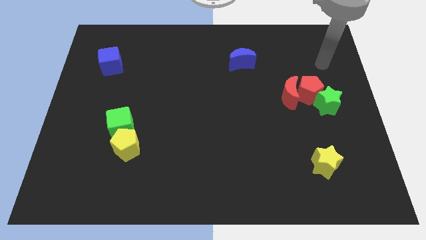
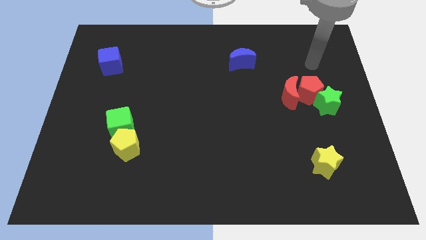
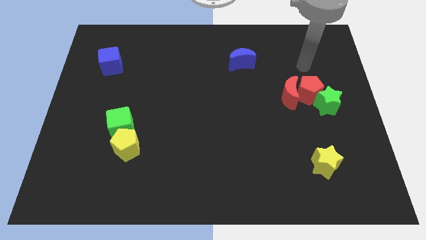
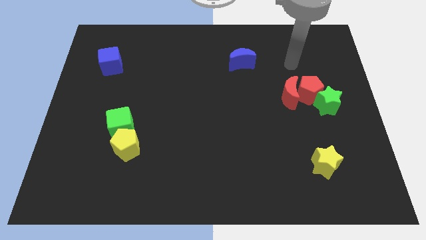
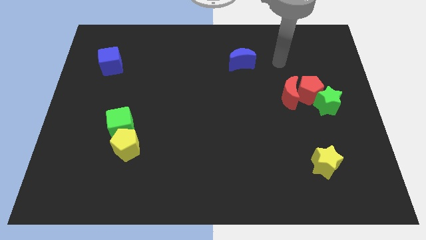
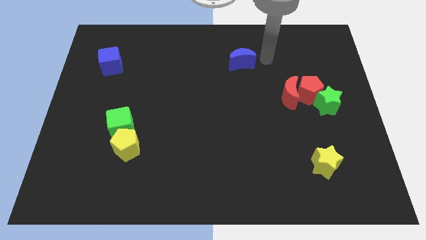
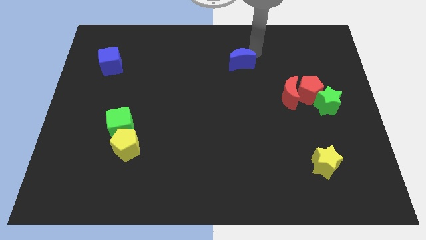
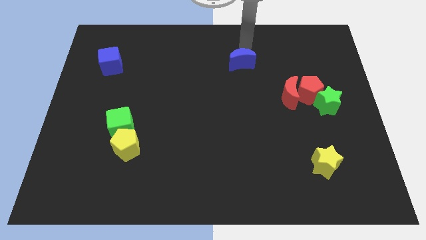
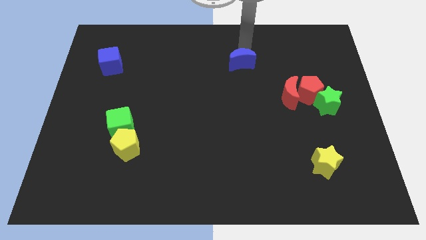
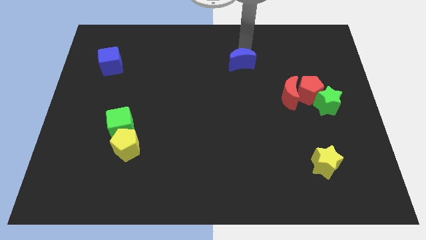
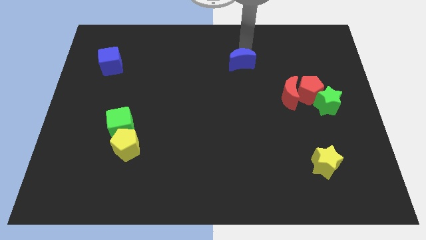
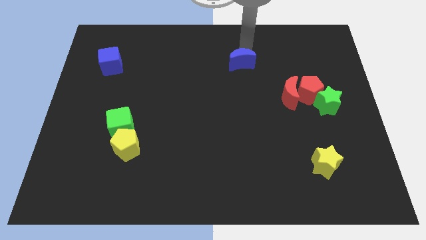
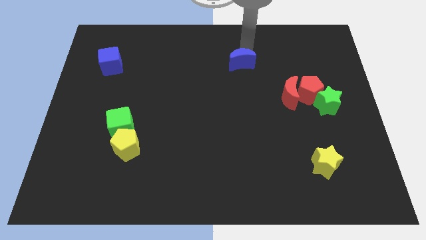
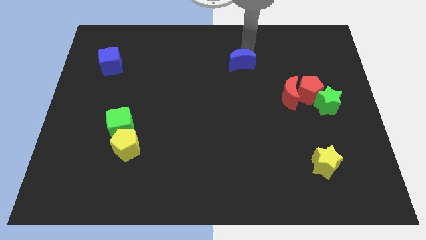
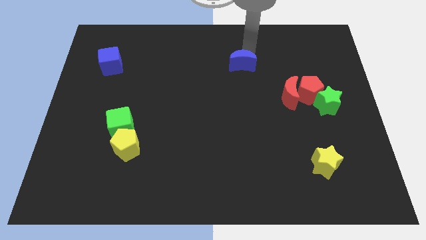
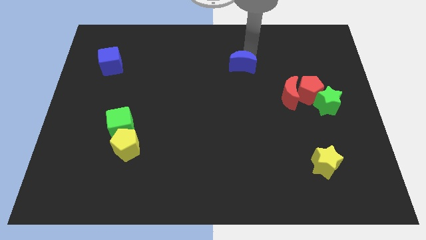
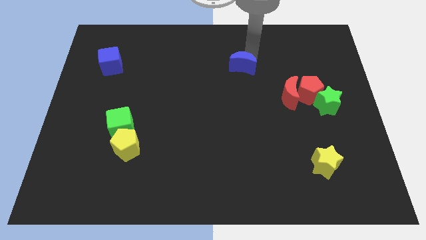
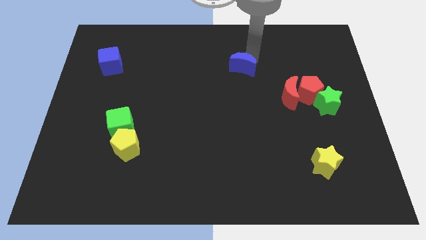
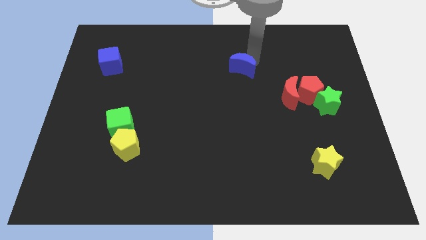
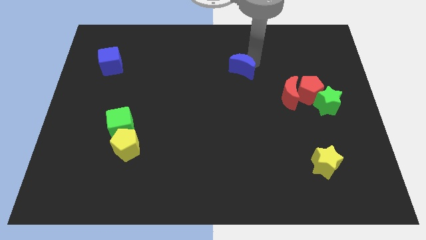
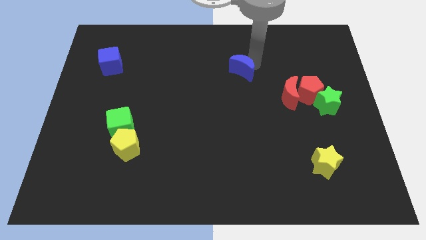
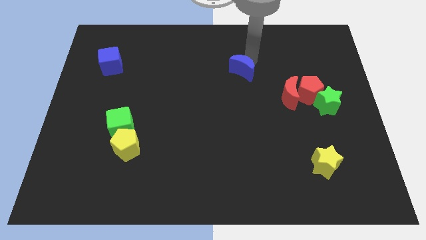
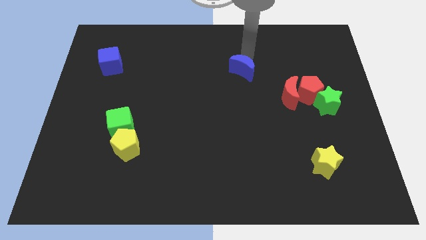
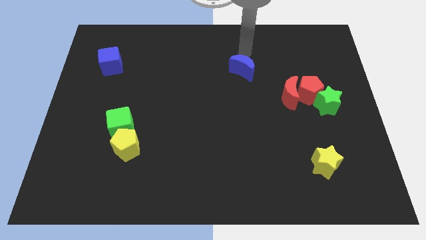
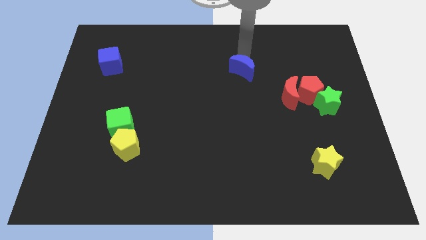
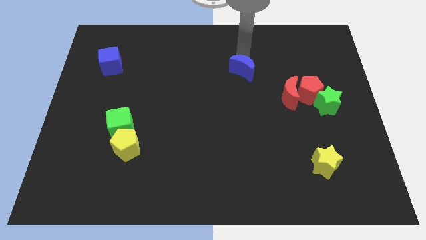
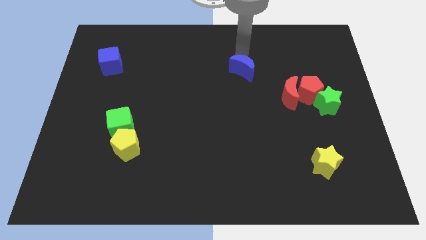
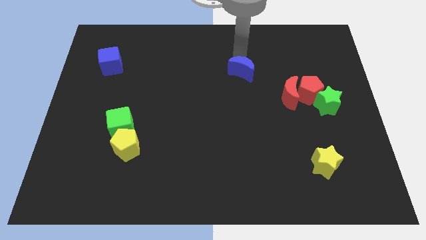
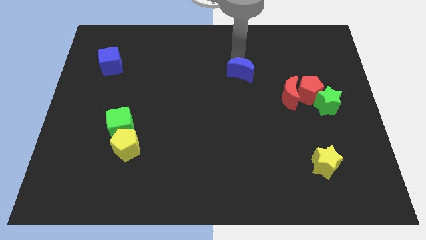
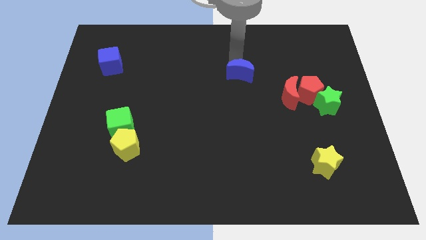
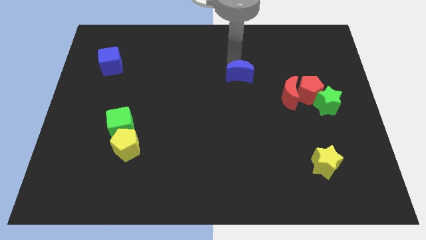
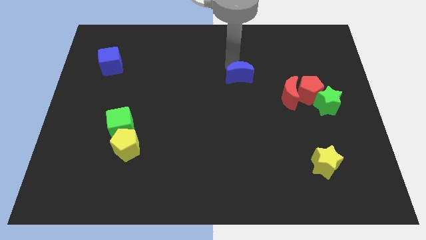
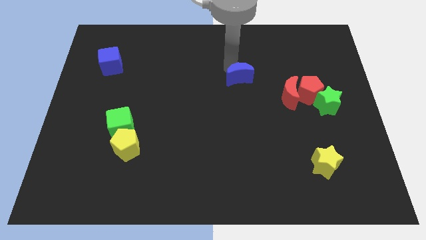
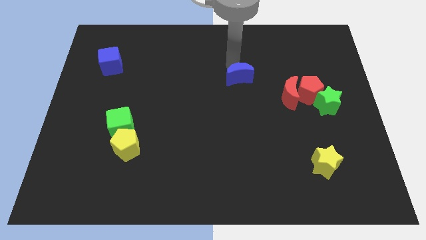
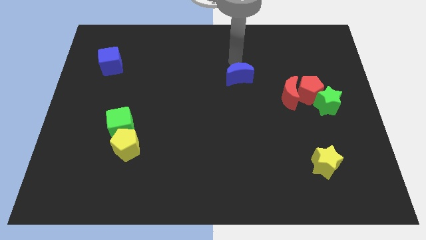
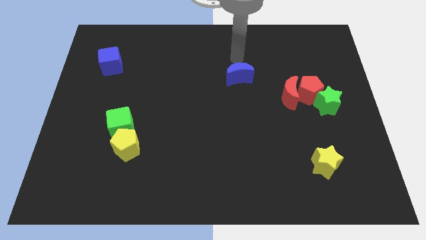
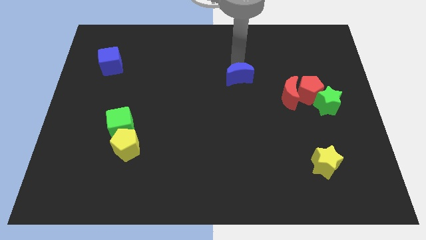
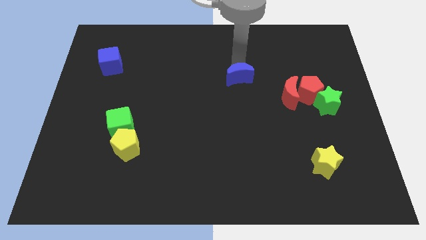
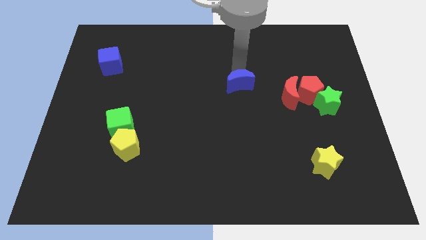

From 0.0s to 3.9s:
move the blue moon downwards a little

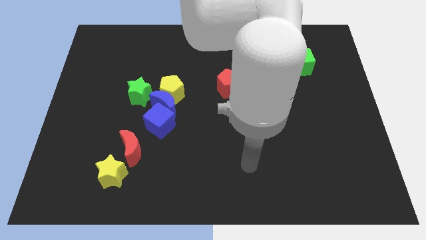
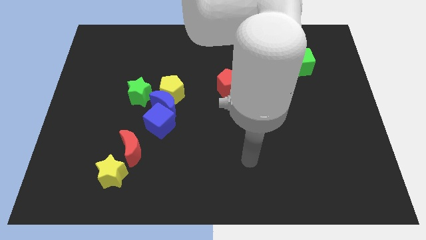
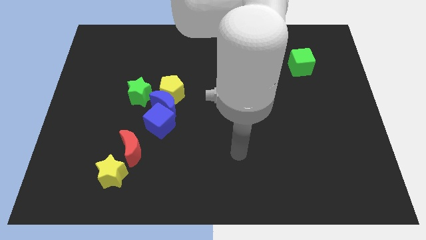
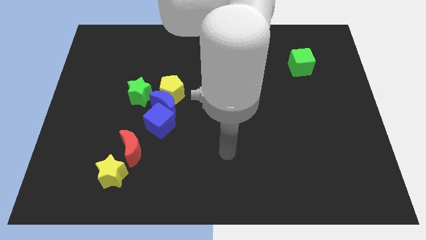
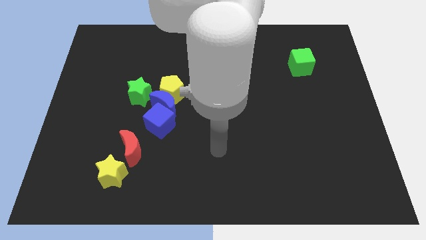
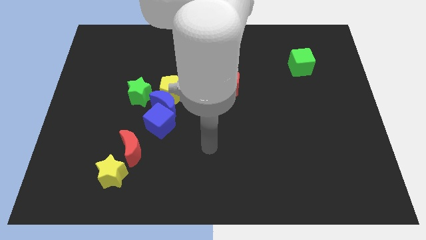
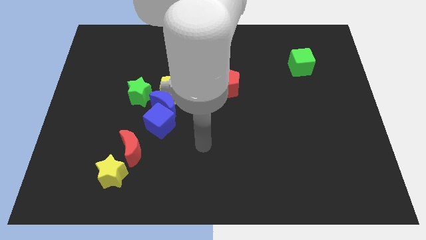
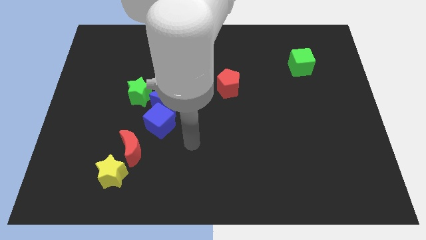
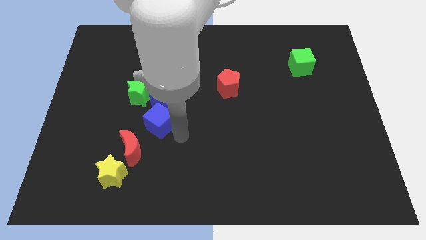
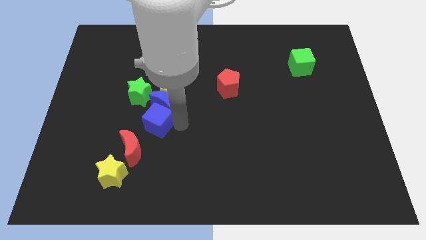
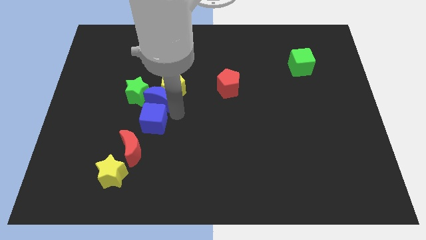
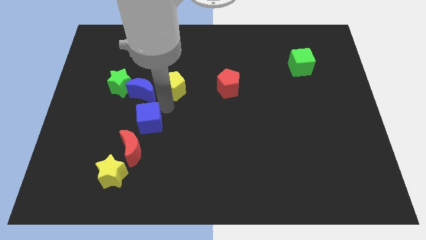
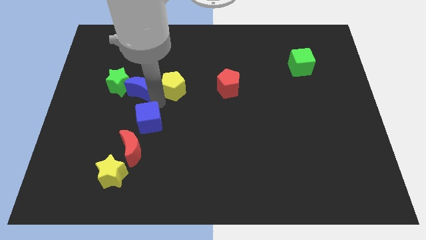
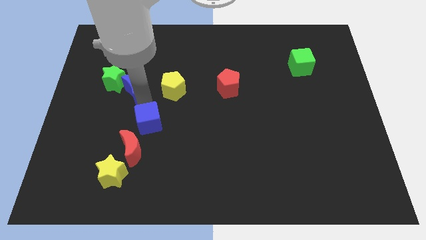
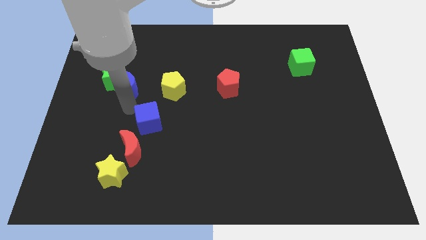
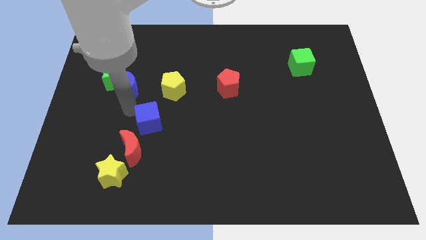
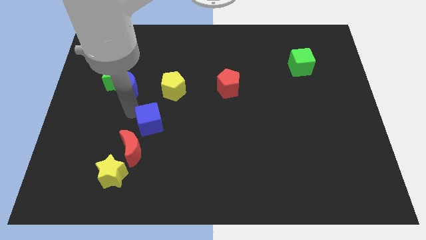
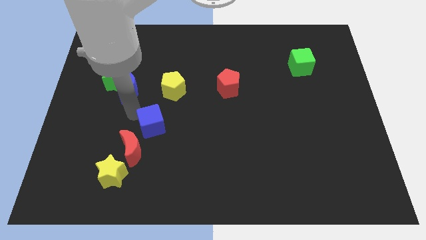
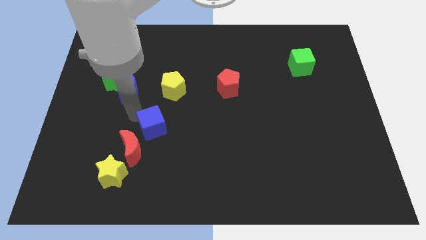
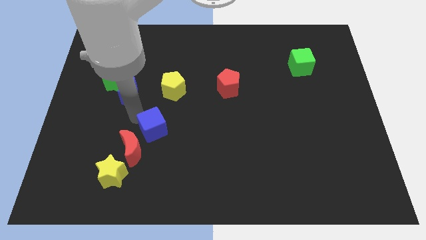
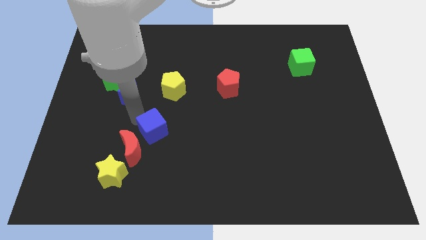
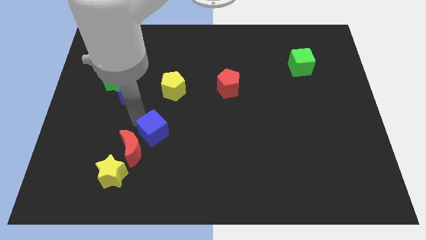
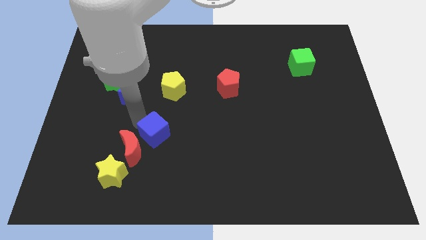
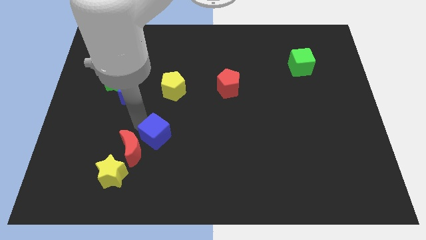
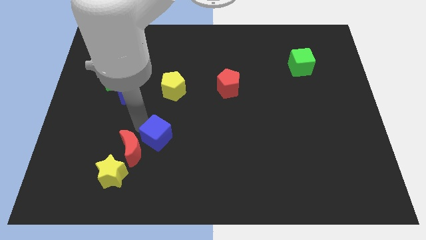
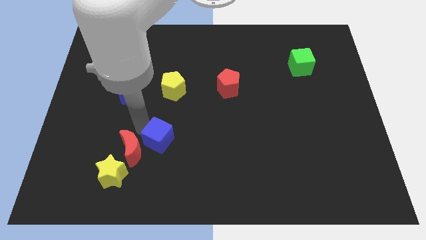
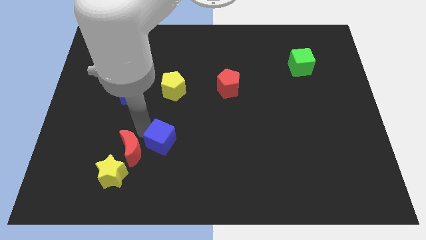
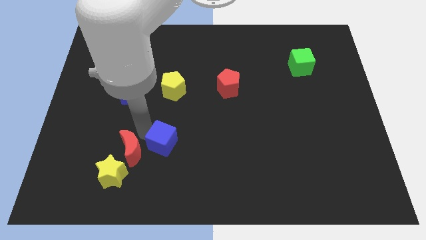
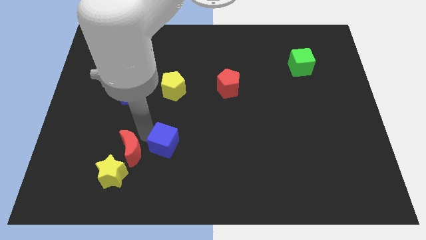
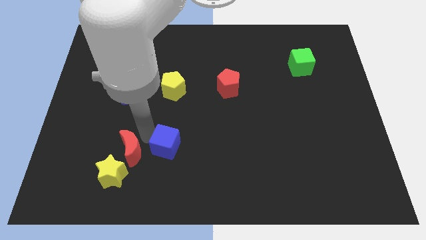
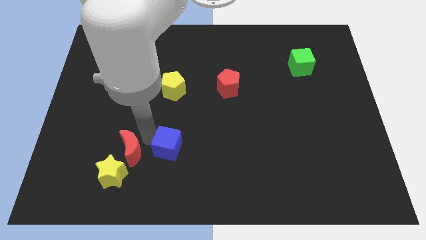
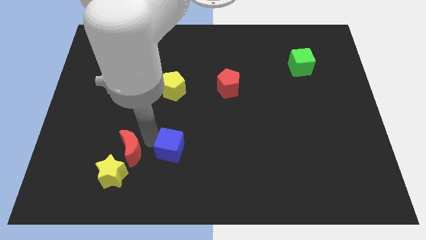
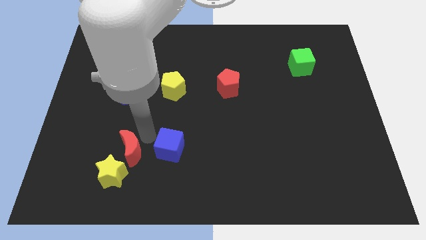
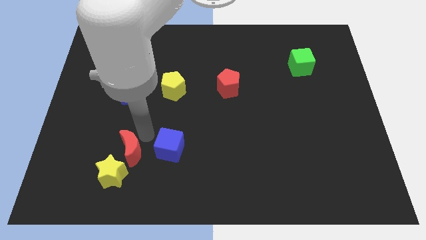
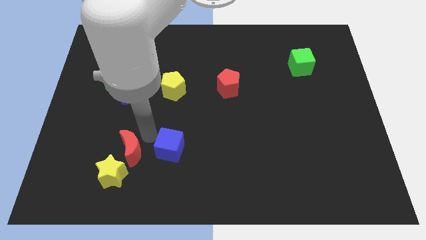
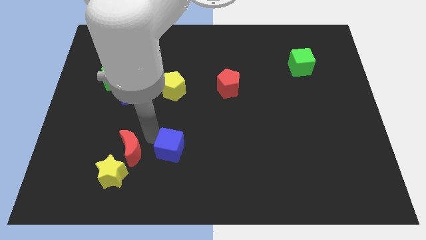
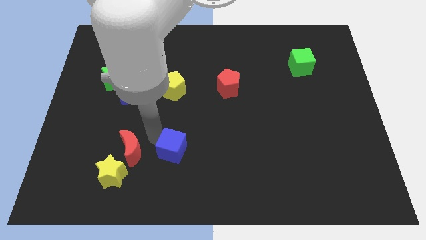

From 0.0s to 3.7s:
move the blue cube a little down and right diagonally
